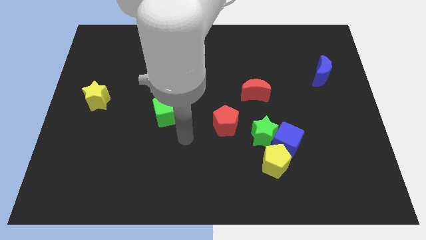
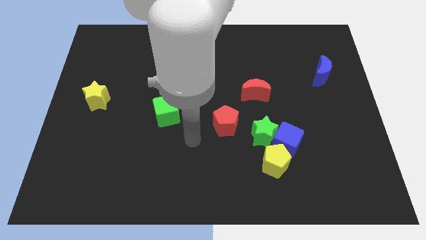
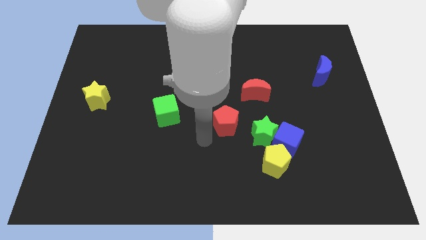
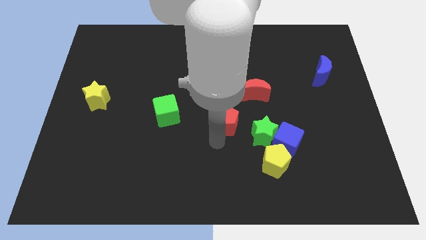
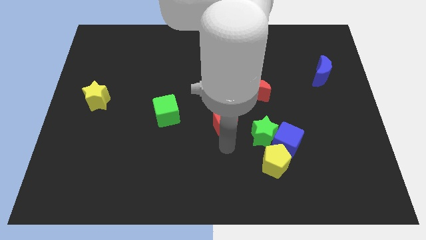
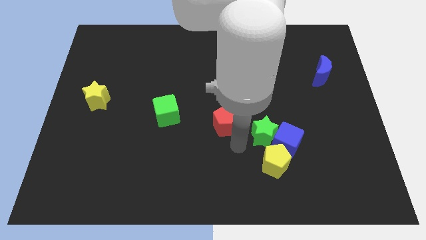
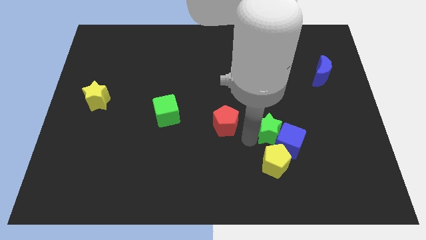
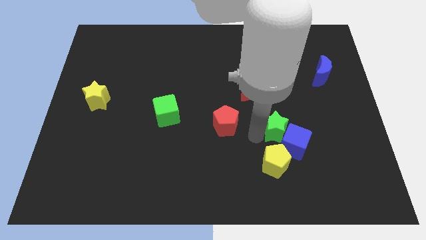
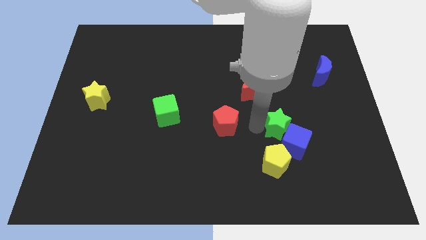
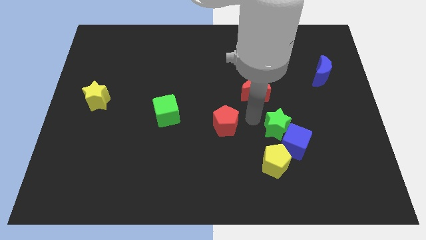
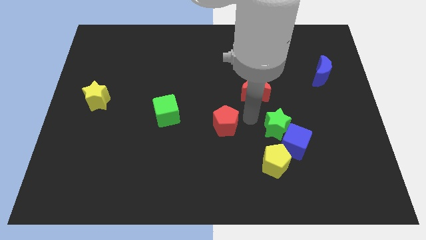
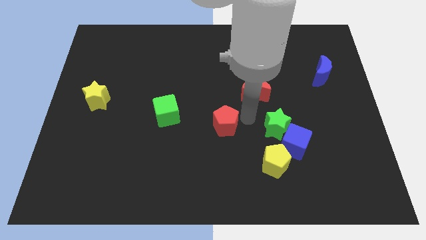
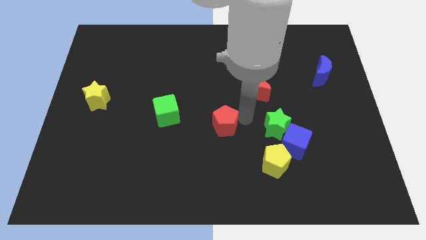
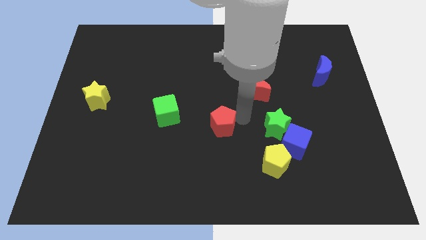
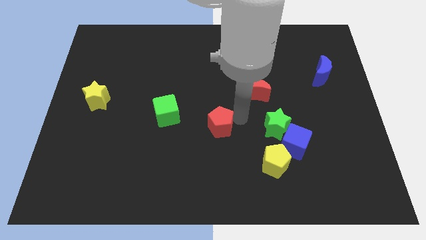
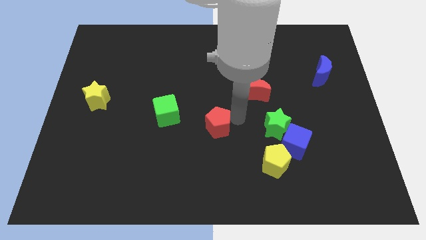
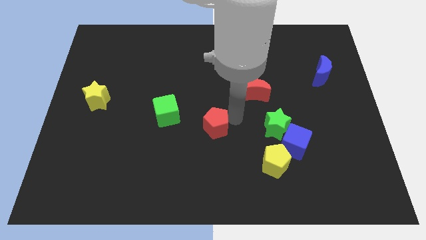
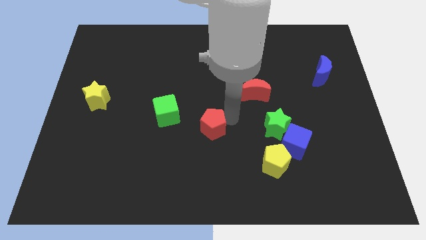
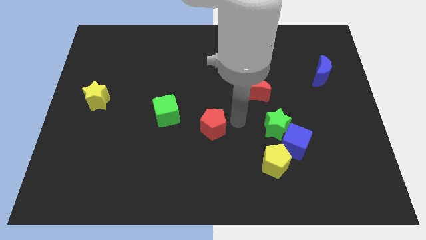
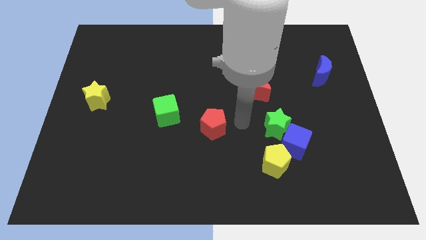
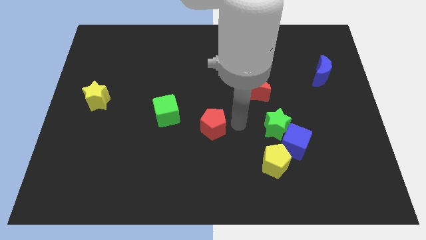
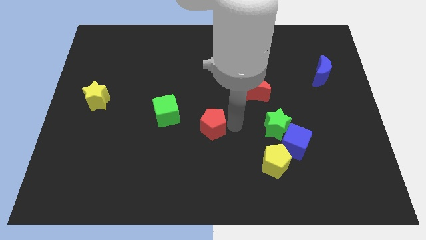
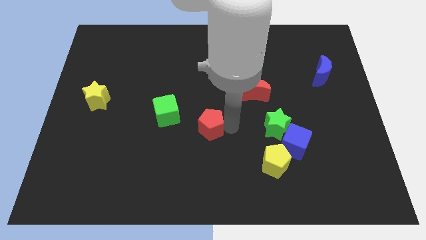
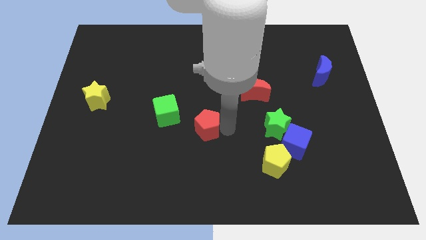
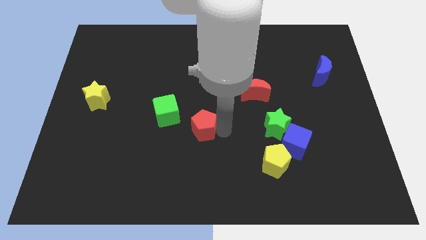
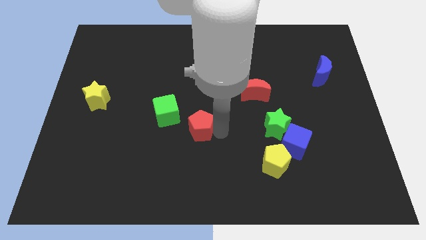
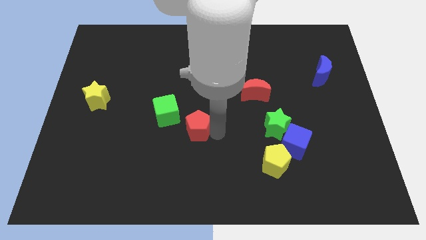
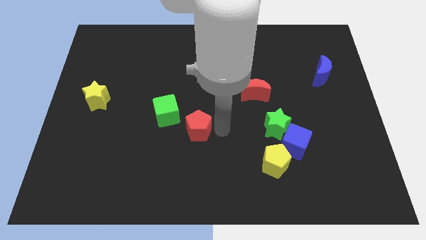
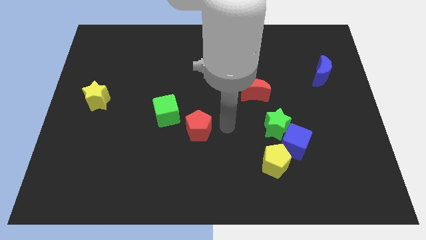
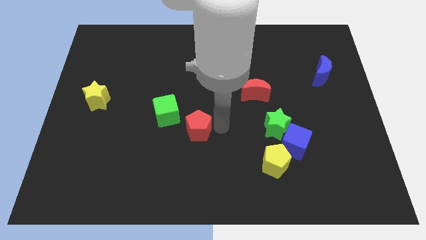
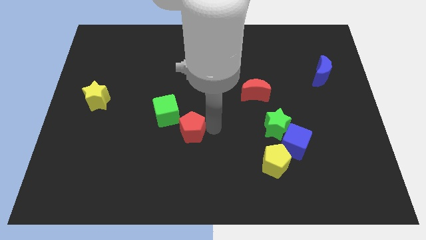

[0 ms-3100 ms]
move the red pentagon a little bit left

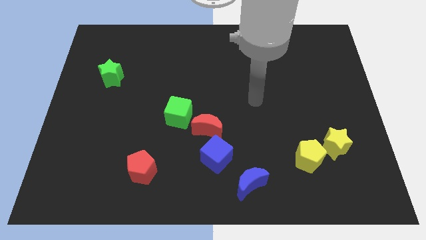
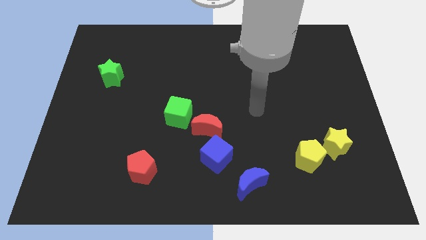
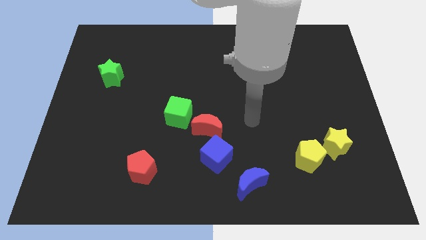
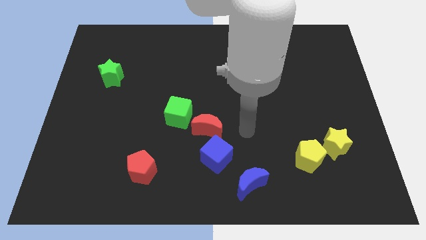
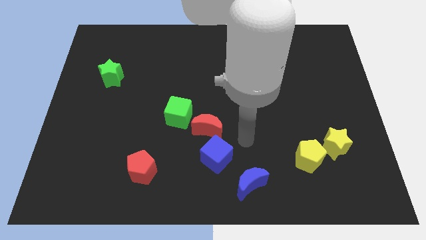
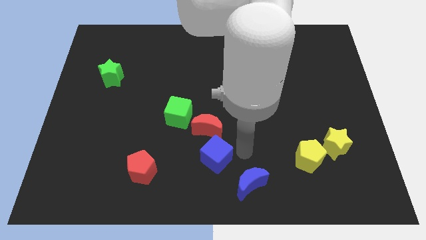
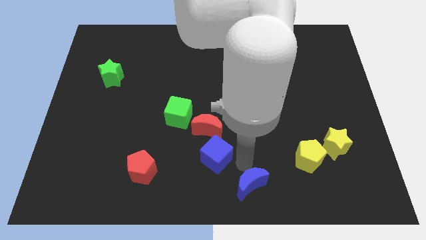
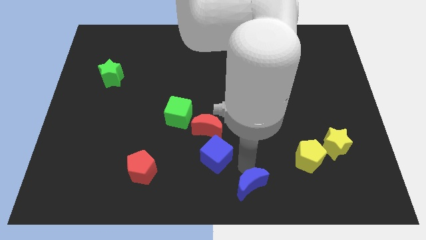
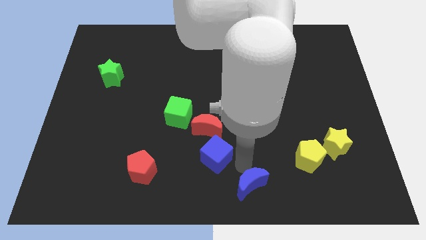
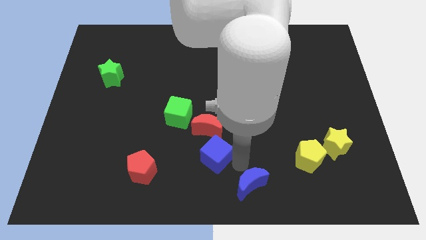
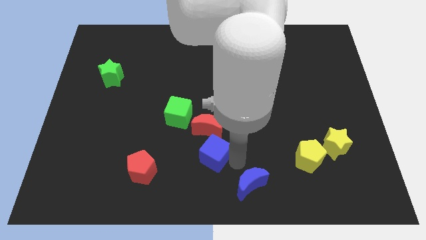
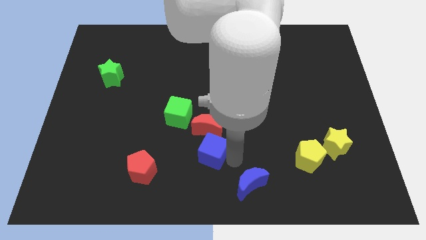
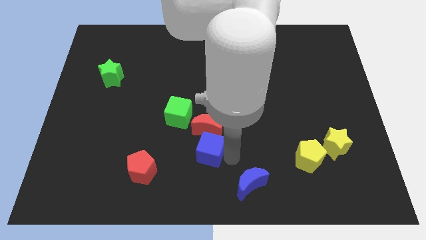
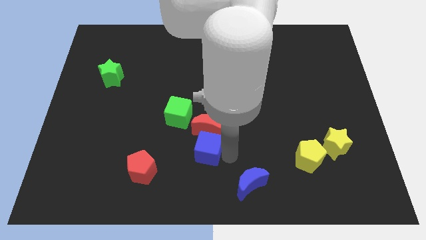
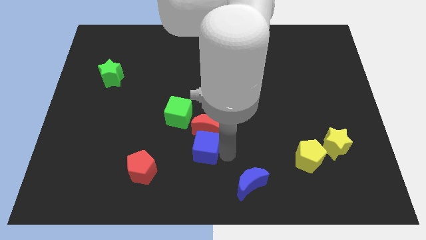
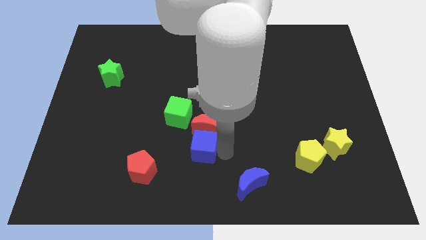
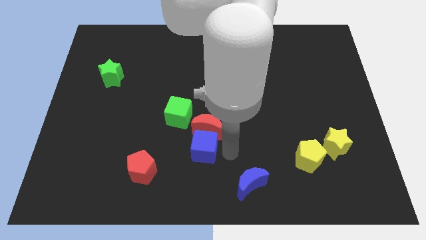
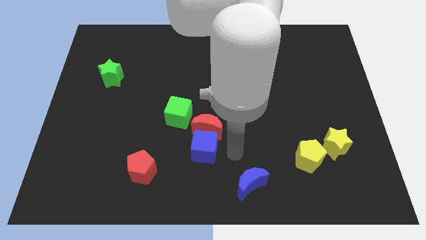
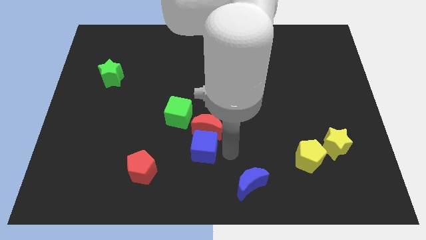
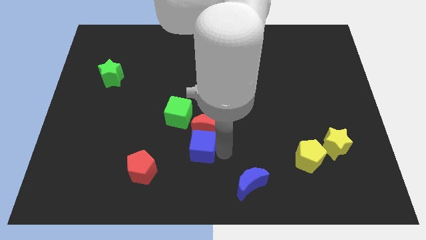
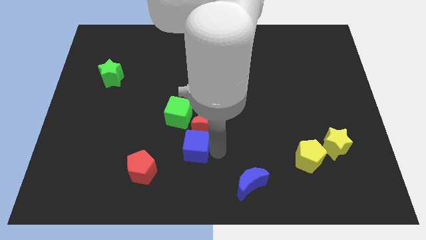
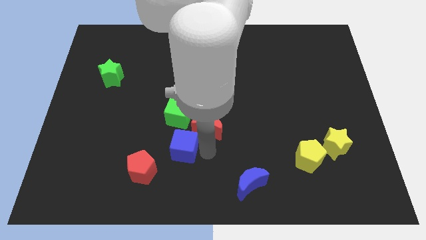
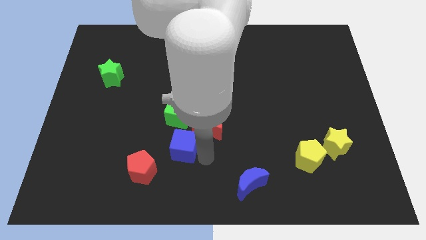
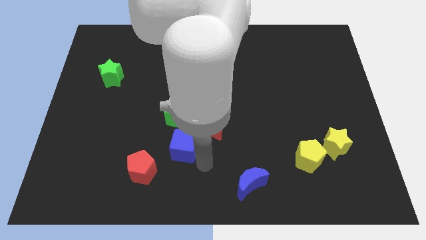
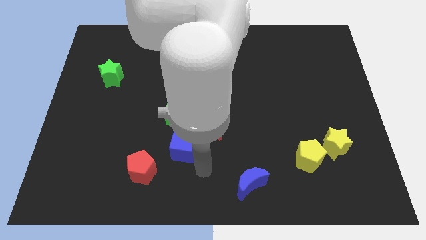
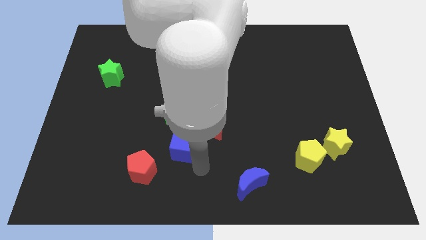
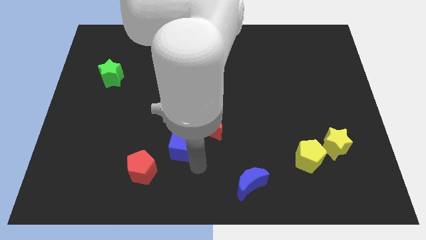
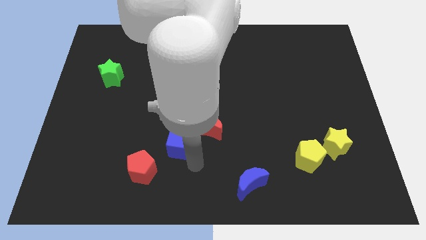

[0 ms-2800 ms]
slightly move the blue cube diagonally up and left

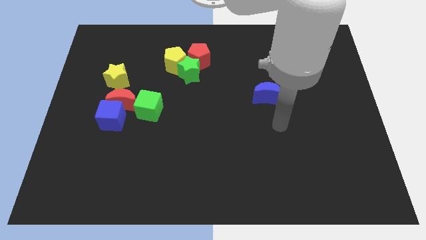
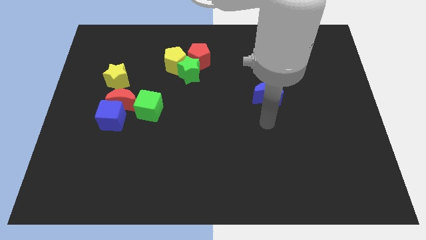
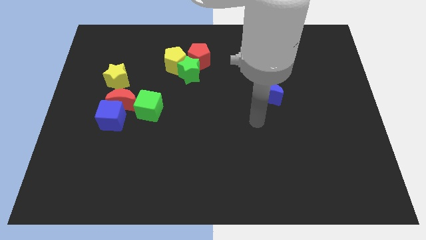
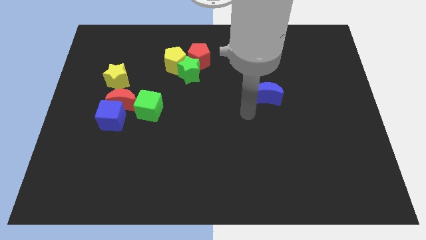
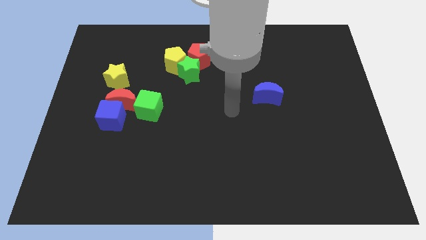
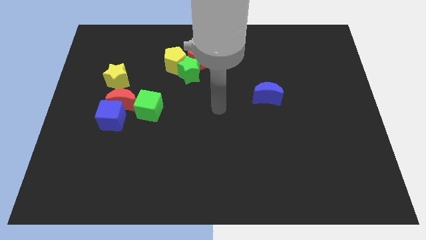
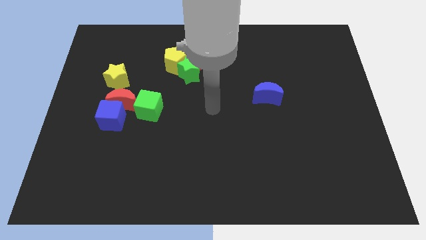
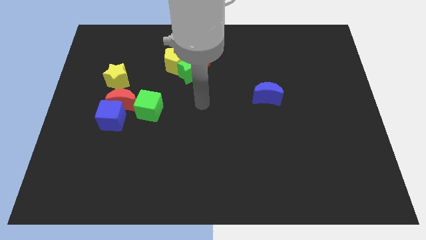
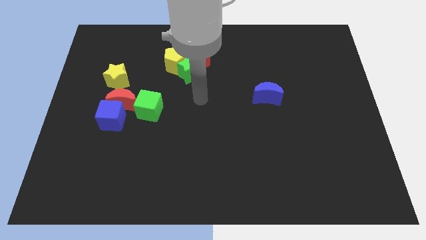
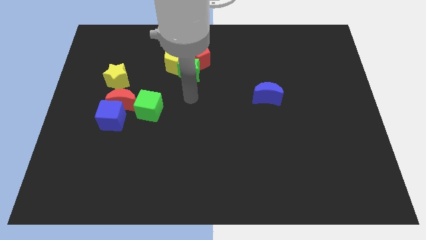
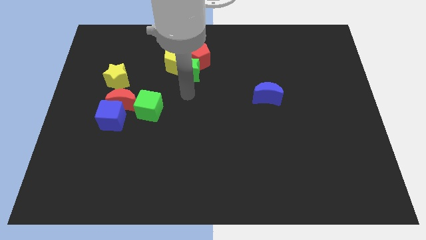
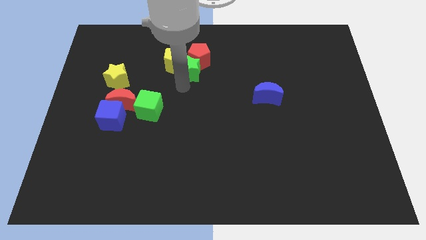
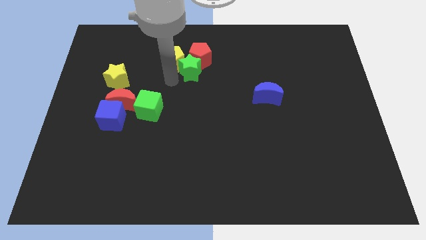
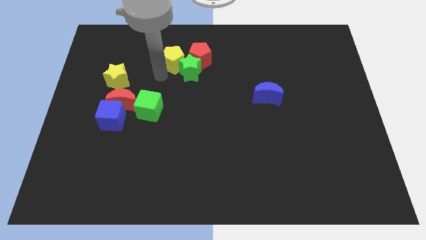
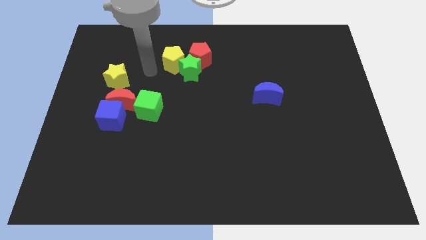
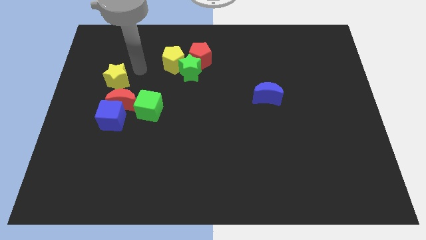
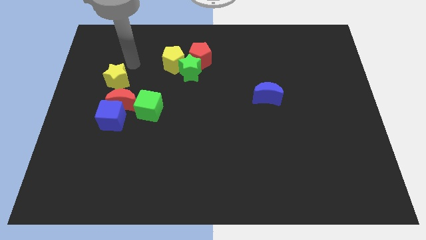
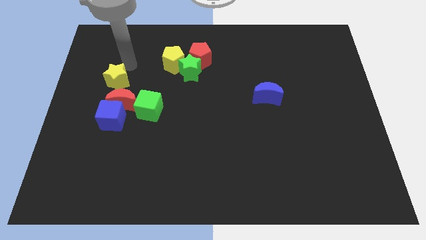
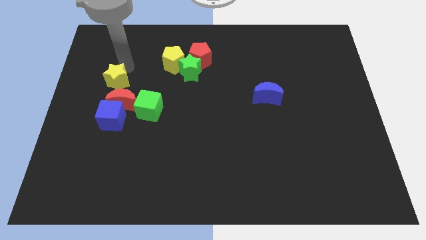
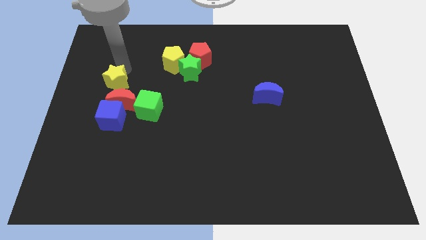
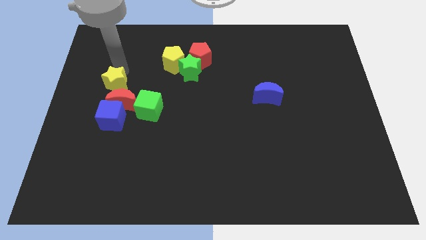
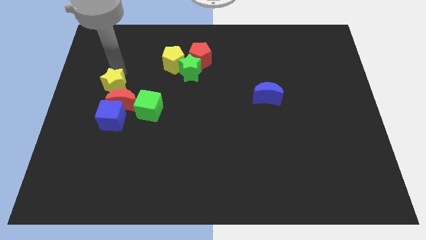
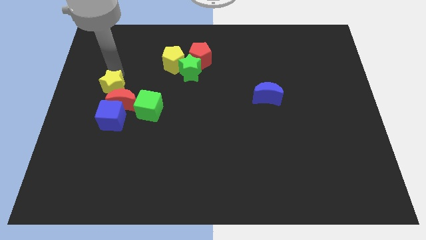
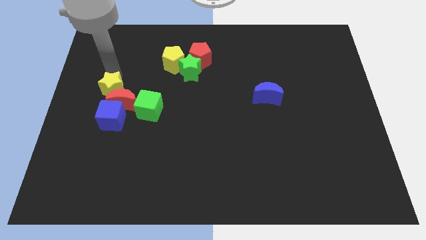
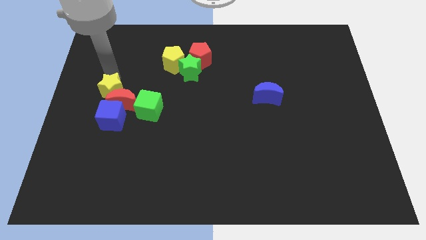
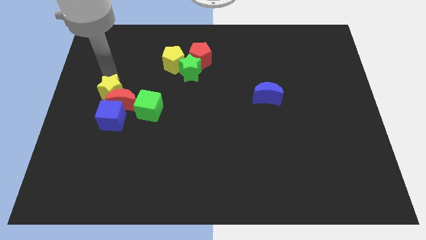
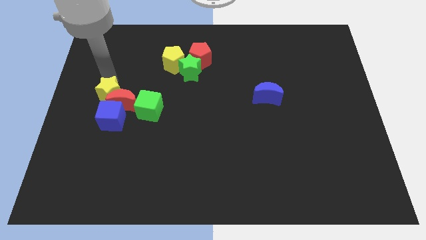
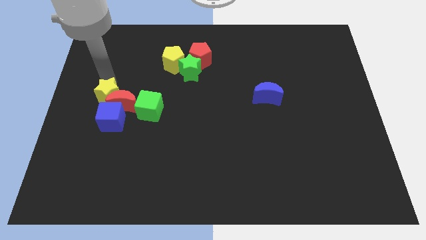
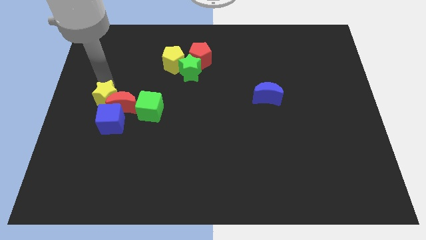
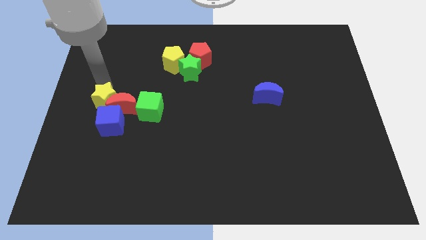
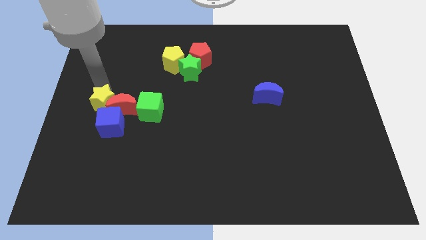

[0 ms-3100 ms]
push the yellow star a little downwards
